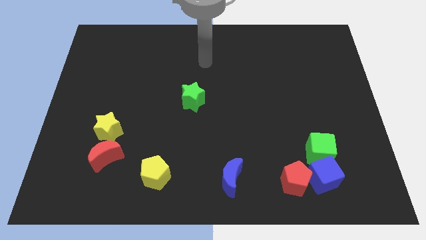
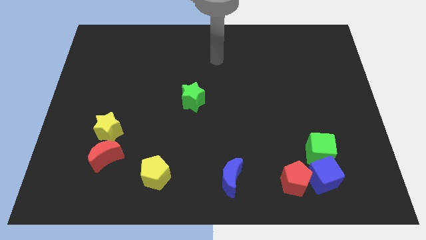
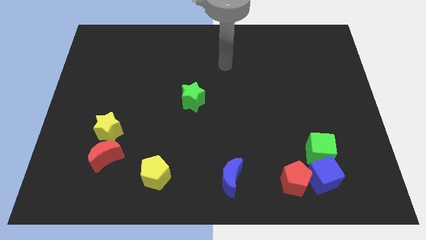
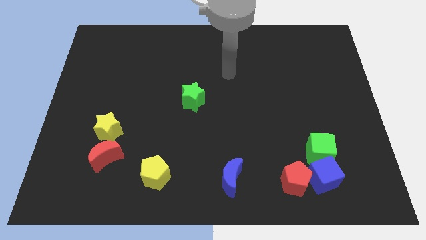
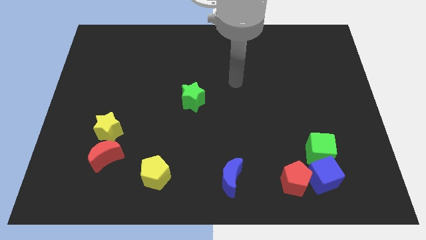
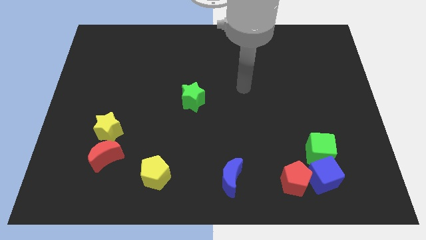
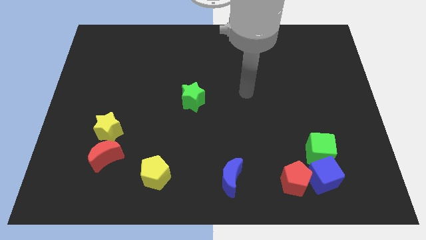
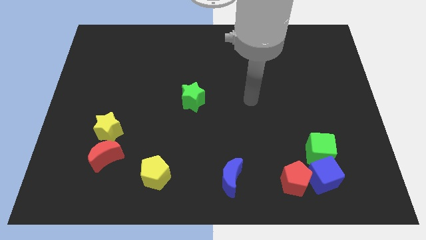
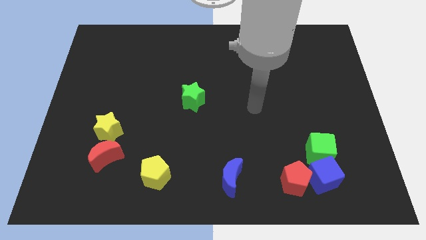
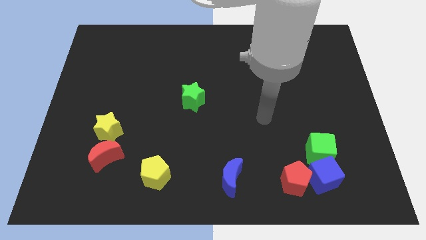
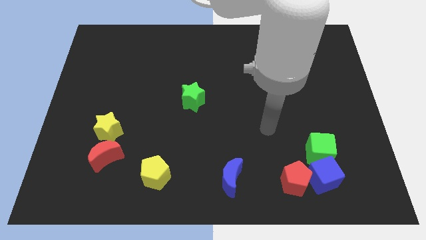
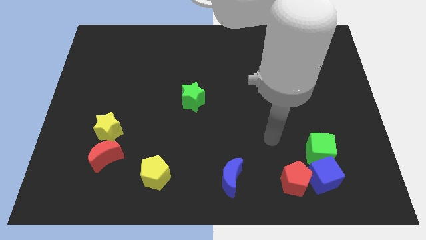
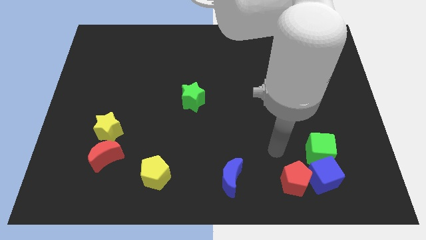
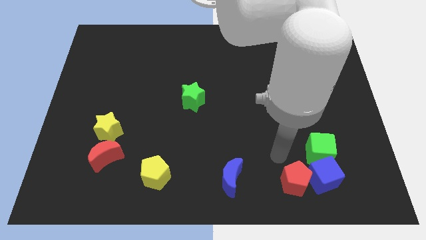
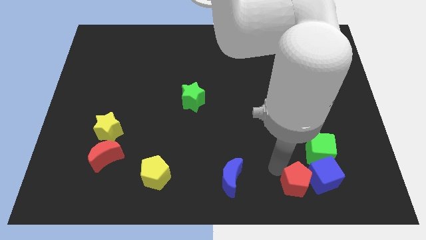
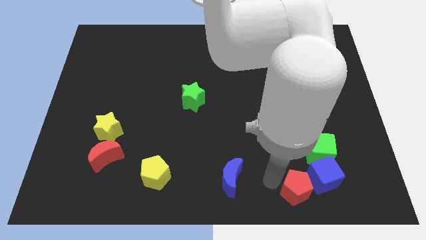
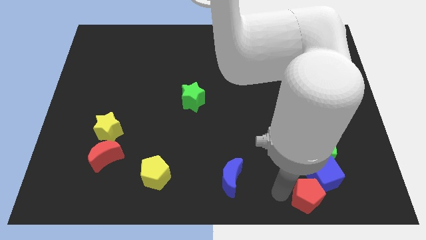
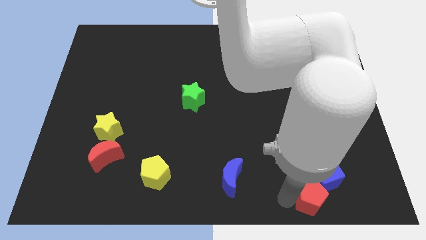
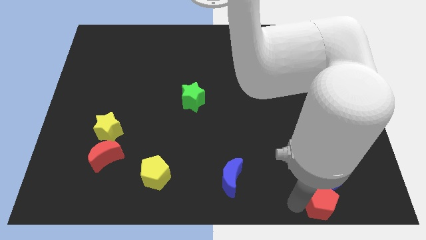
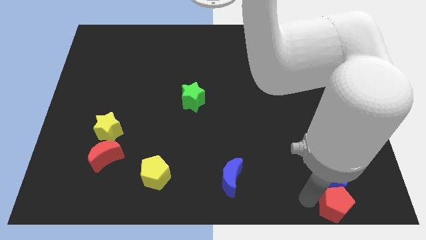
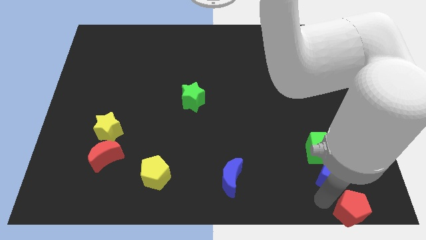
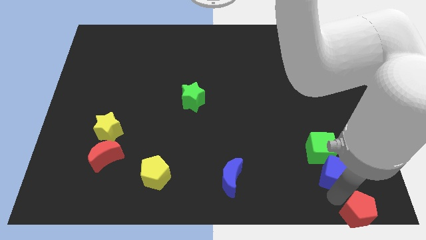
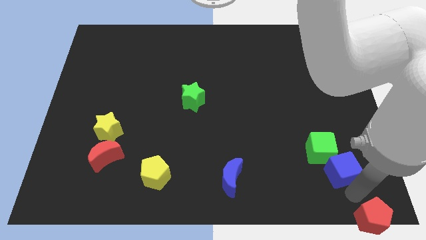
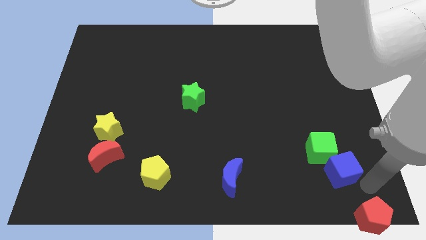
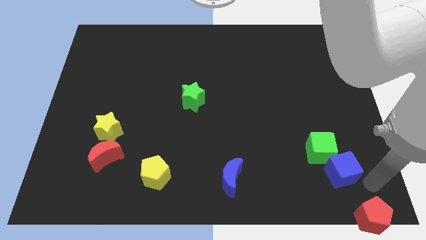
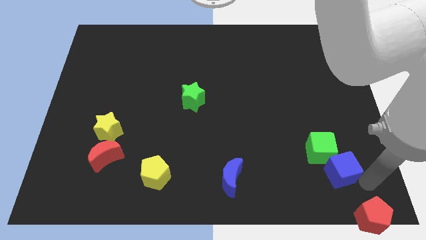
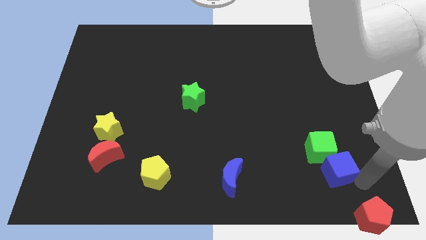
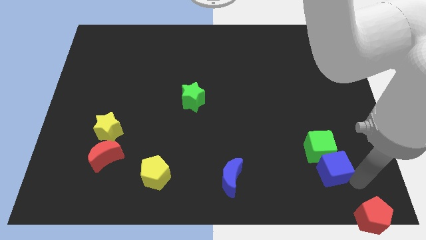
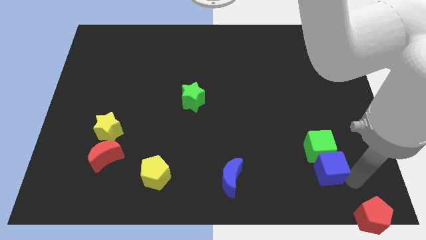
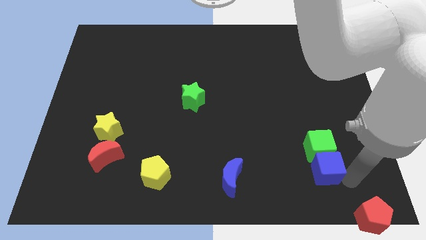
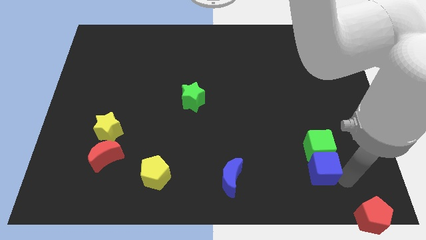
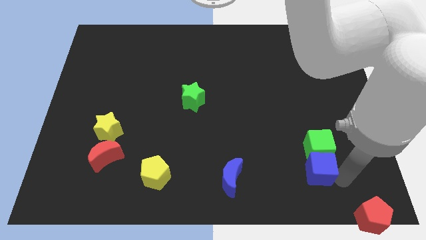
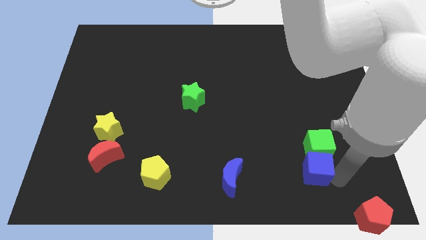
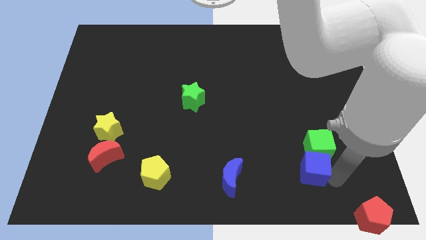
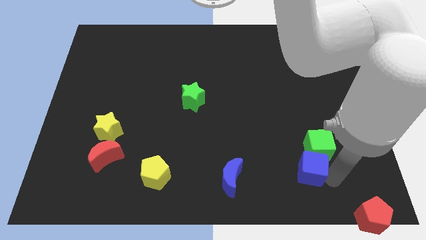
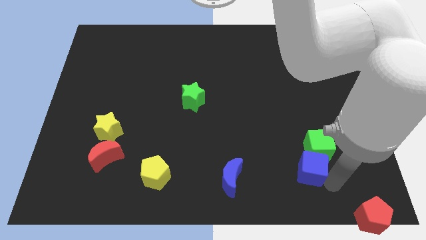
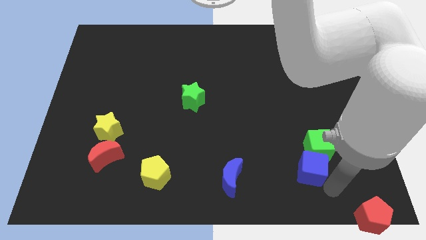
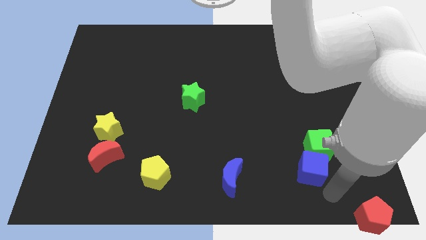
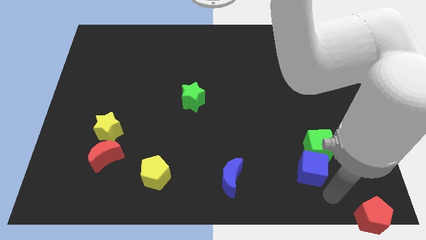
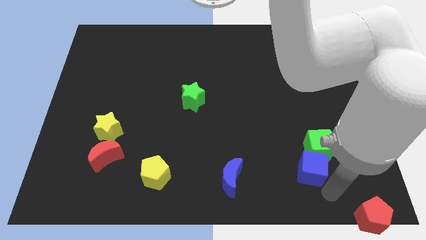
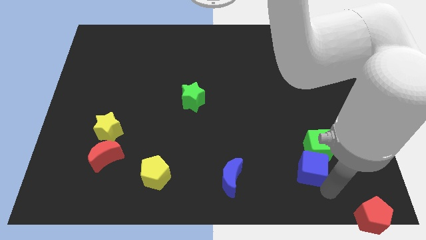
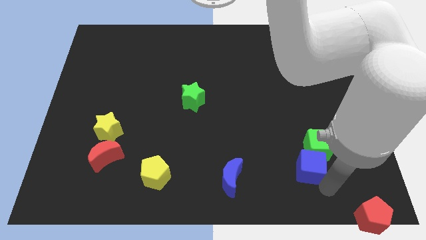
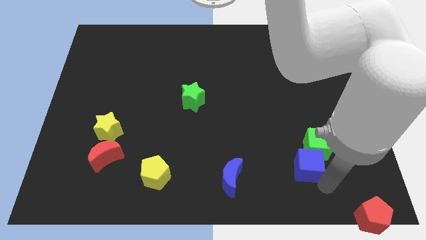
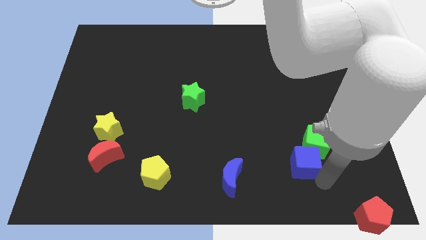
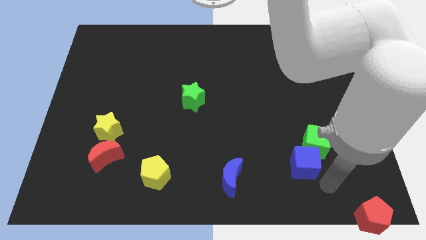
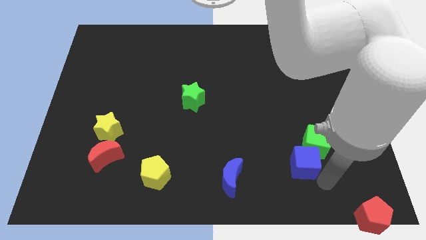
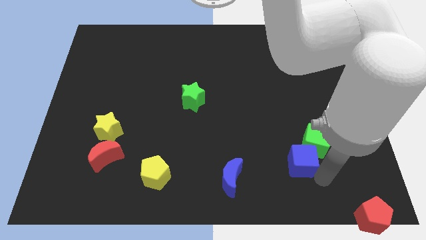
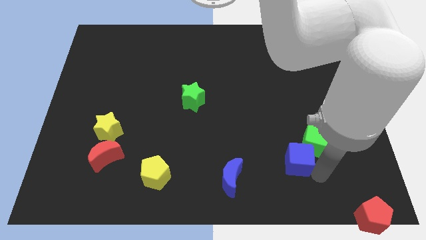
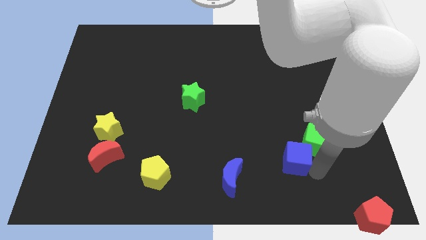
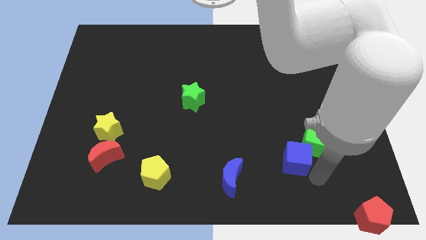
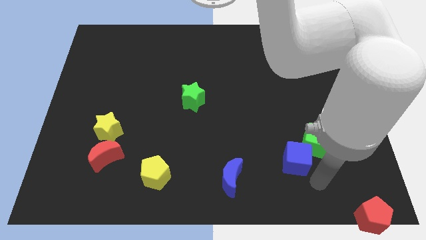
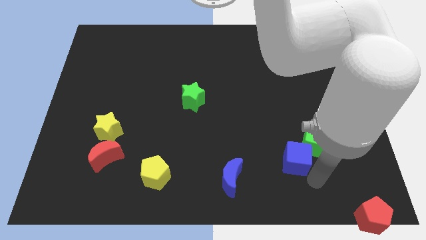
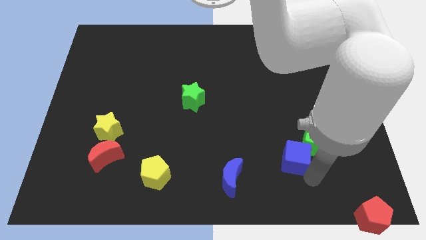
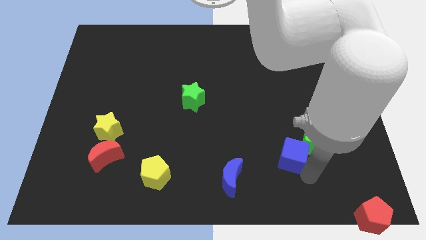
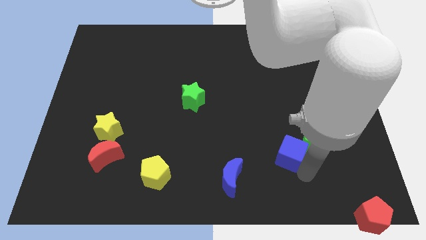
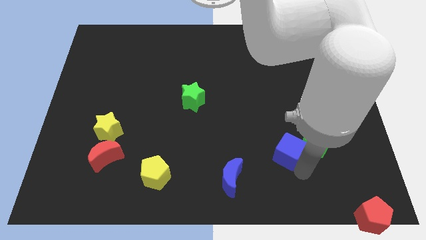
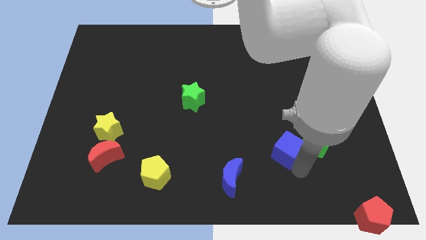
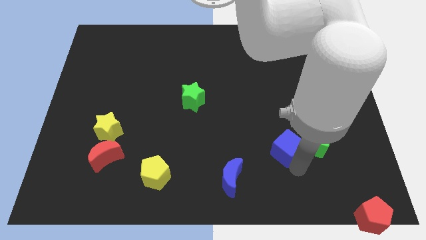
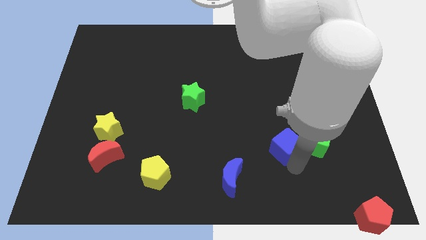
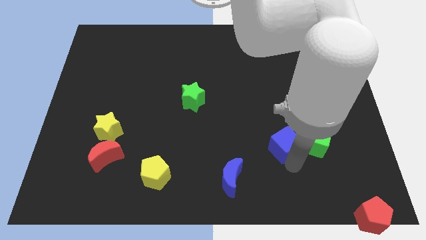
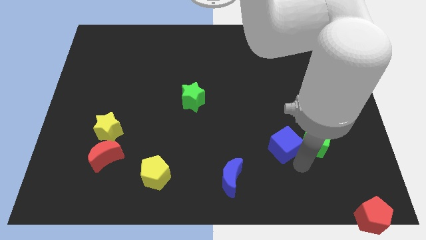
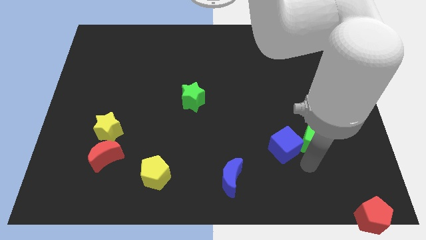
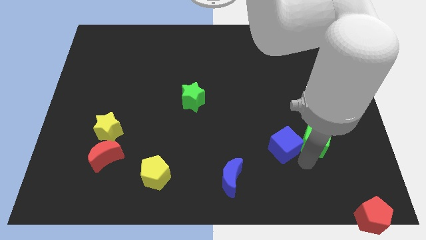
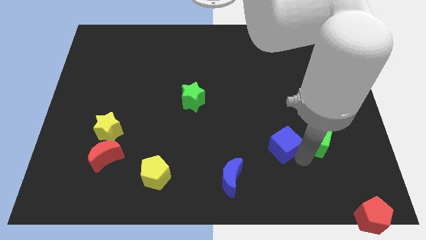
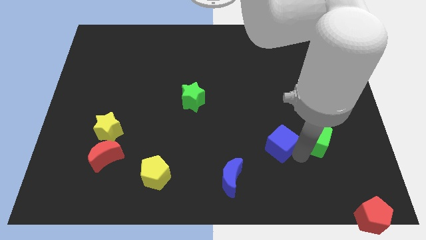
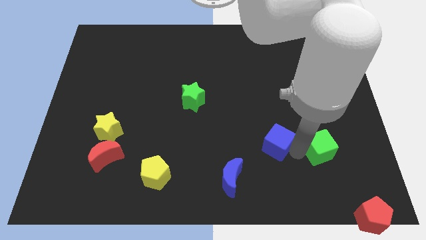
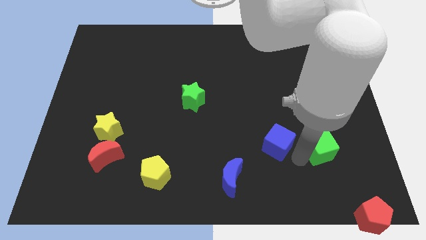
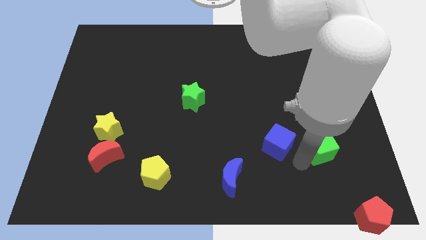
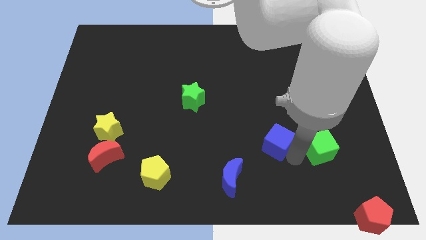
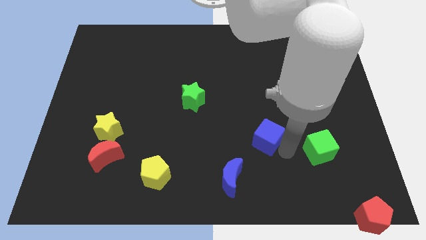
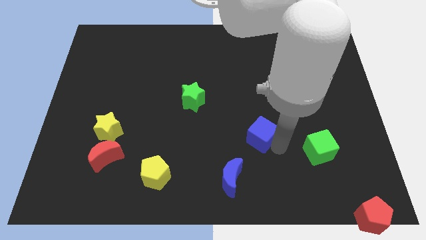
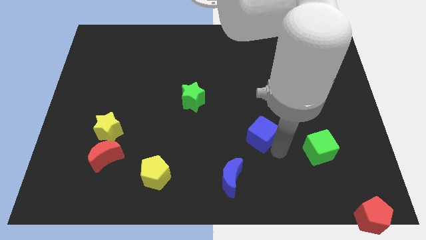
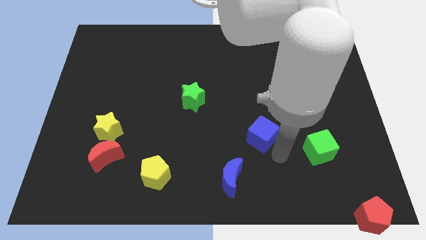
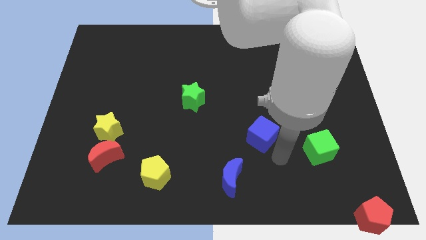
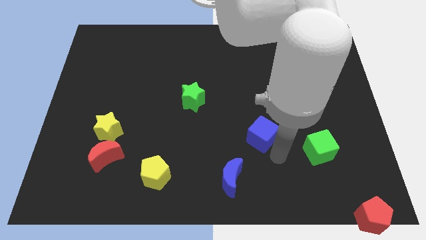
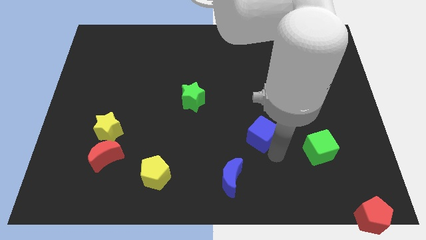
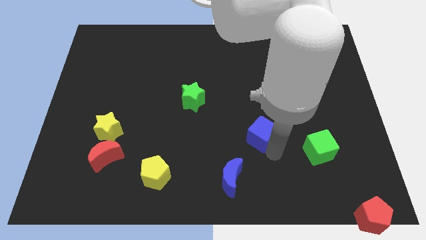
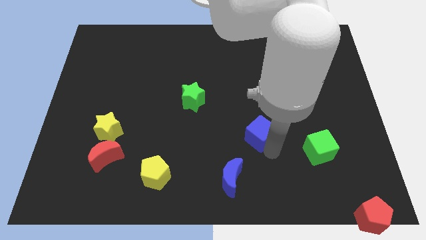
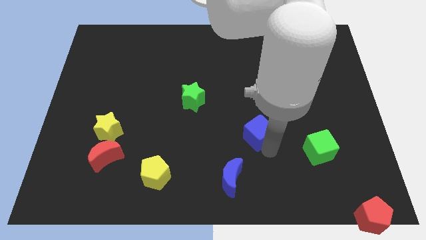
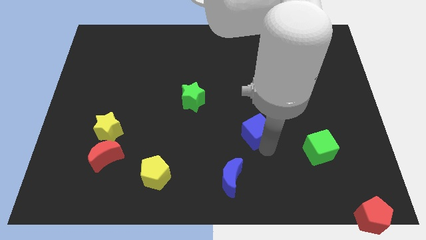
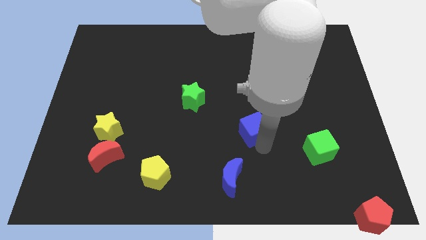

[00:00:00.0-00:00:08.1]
push the blue cube to the center
